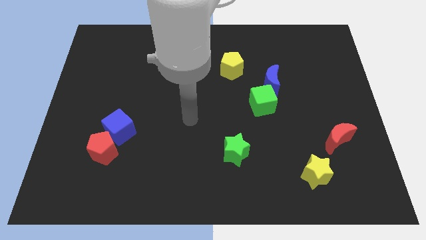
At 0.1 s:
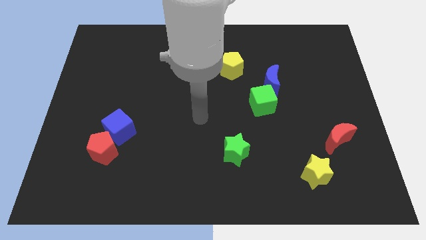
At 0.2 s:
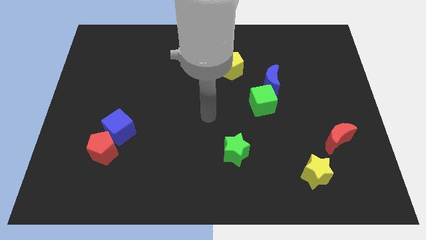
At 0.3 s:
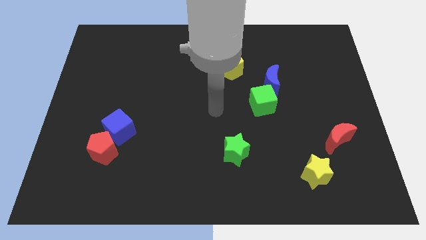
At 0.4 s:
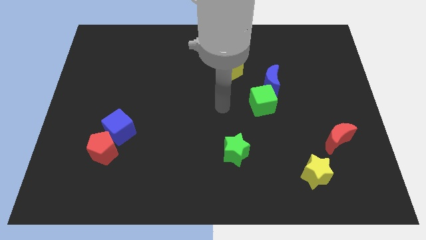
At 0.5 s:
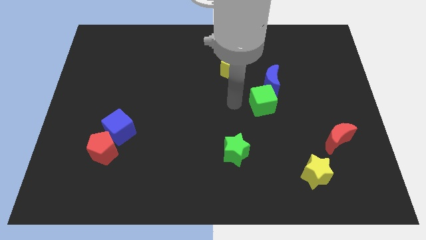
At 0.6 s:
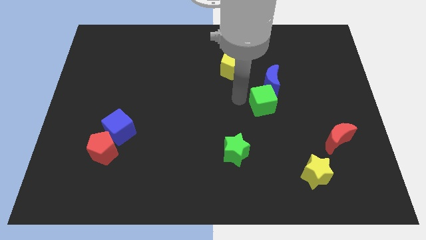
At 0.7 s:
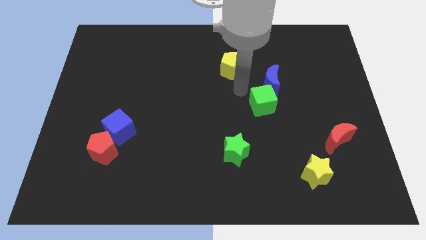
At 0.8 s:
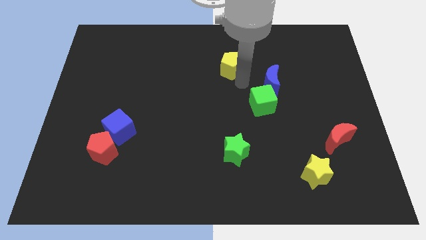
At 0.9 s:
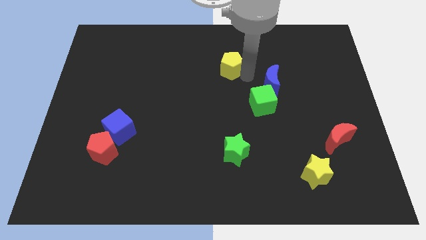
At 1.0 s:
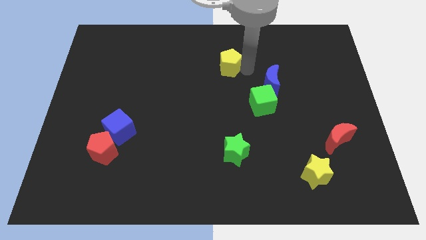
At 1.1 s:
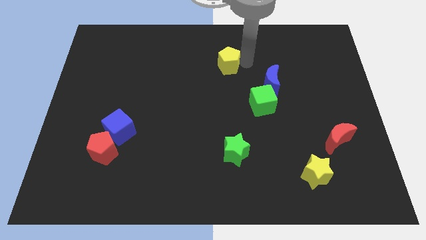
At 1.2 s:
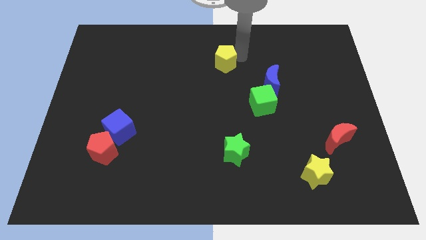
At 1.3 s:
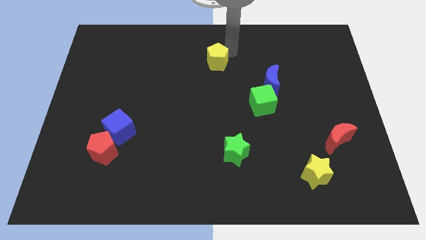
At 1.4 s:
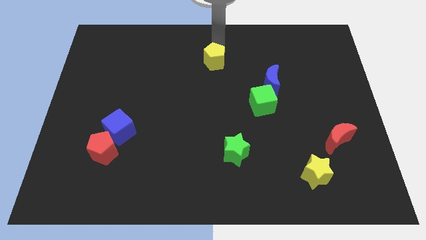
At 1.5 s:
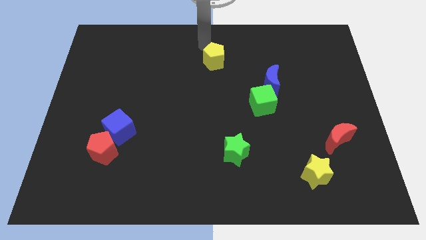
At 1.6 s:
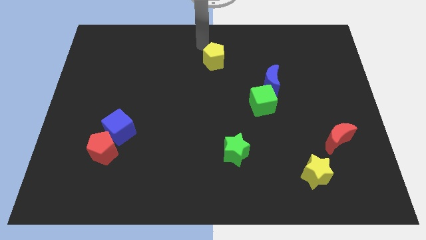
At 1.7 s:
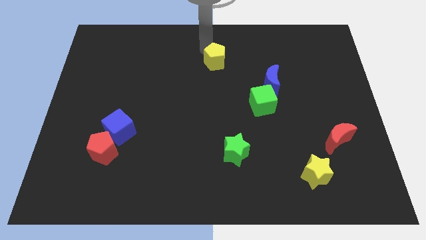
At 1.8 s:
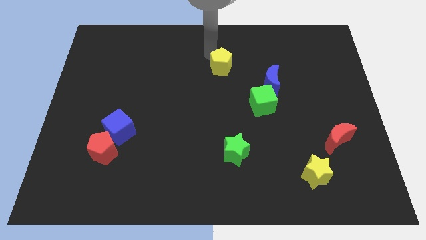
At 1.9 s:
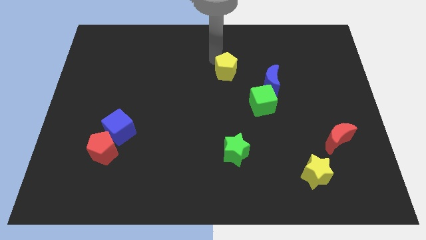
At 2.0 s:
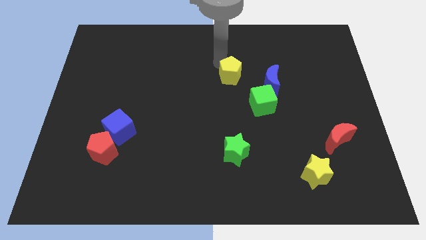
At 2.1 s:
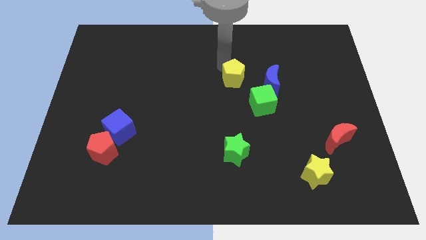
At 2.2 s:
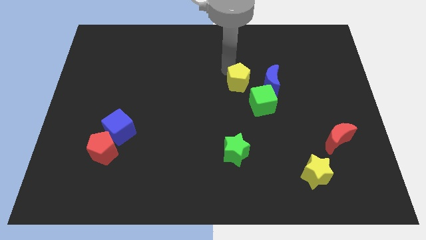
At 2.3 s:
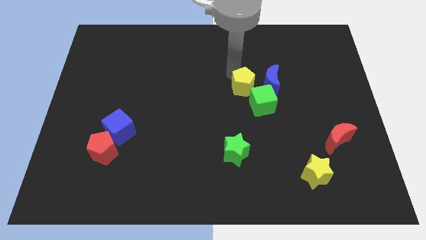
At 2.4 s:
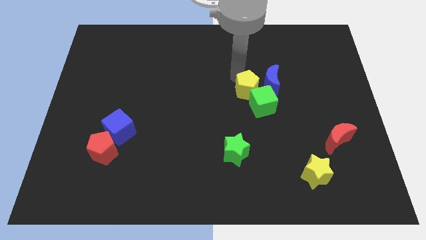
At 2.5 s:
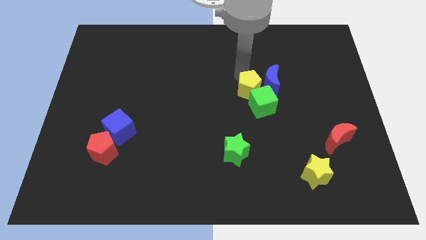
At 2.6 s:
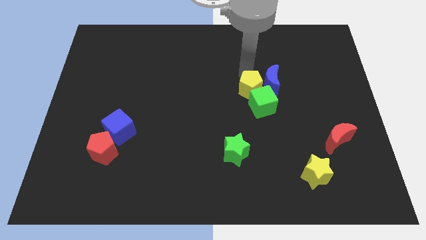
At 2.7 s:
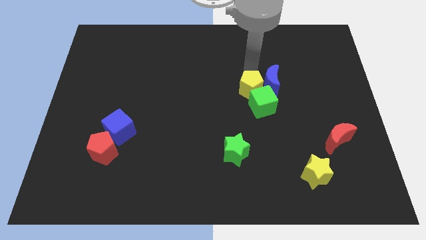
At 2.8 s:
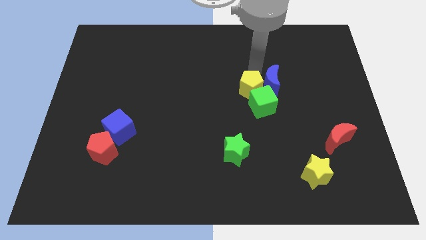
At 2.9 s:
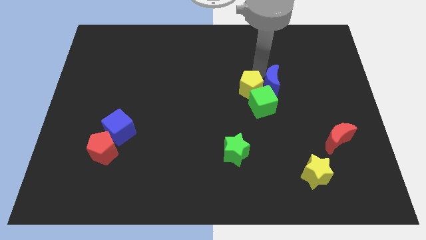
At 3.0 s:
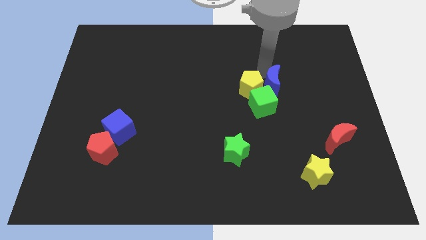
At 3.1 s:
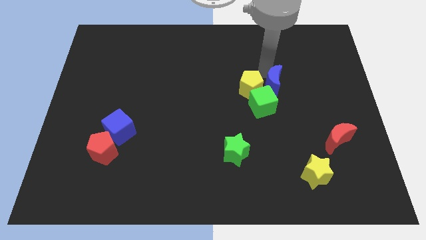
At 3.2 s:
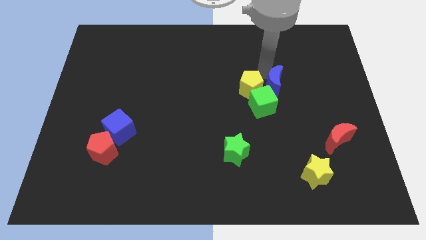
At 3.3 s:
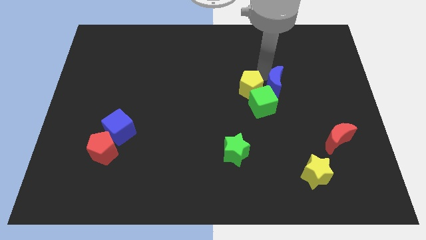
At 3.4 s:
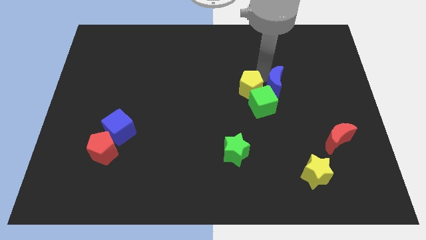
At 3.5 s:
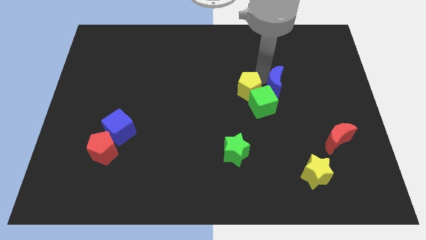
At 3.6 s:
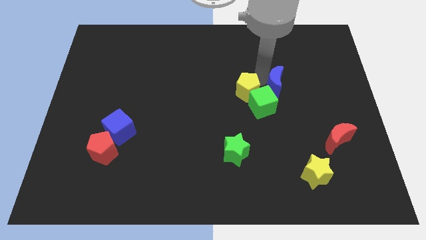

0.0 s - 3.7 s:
slightly move the yellow pentagon down

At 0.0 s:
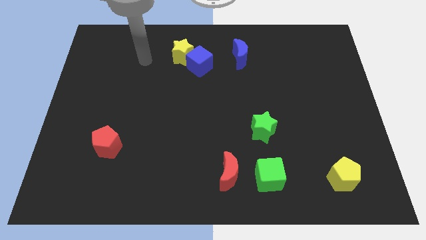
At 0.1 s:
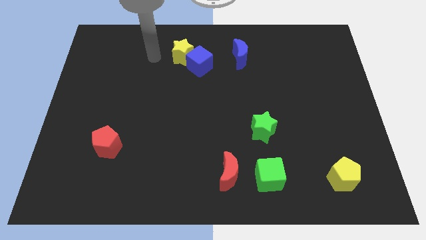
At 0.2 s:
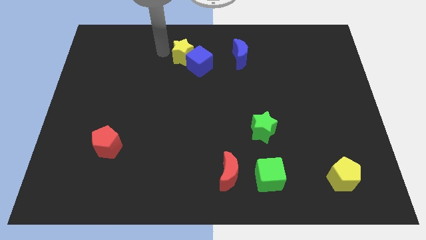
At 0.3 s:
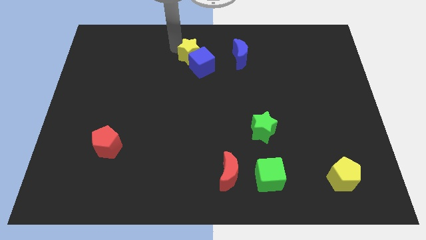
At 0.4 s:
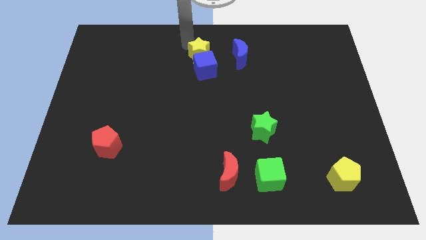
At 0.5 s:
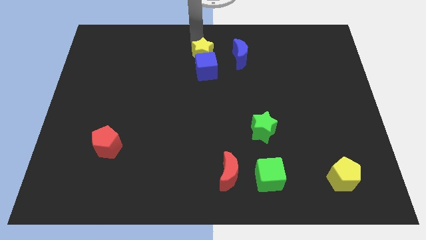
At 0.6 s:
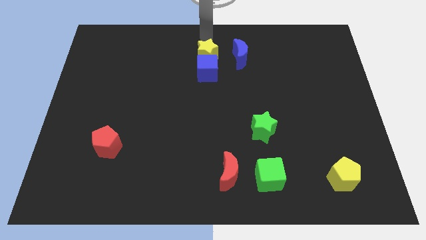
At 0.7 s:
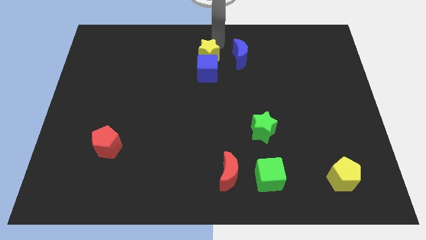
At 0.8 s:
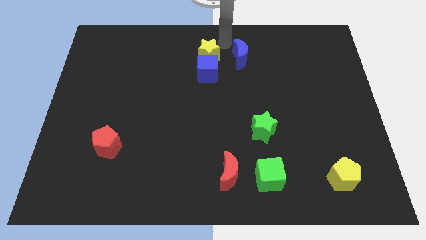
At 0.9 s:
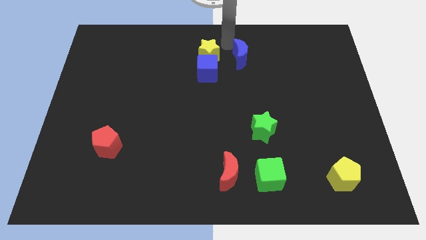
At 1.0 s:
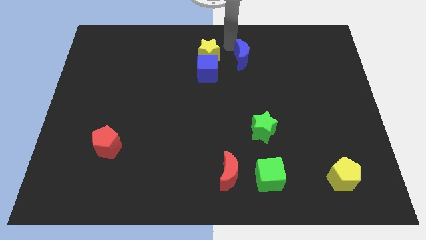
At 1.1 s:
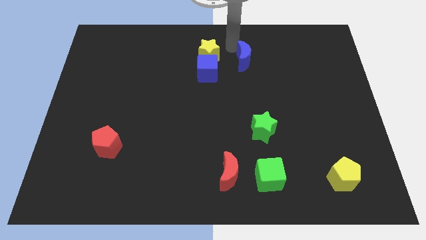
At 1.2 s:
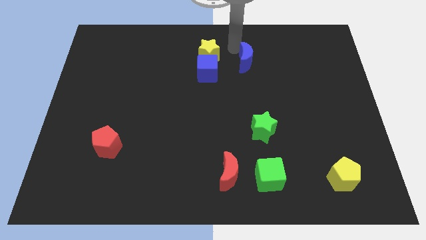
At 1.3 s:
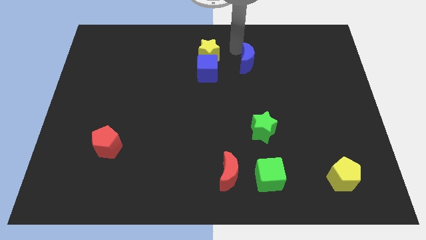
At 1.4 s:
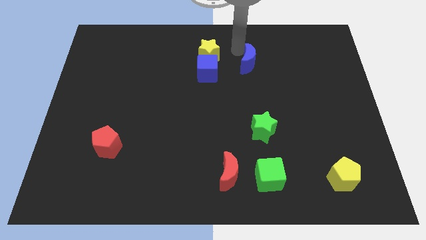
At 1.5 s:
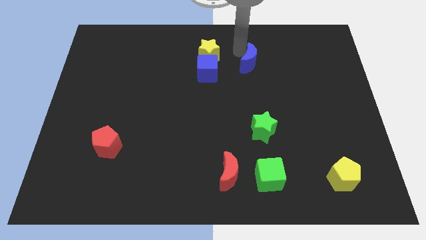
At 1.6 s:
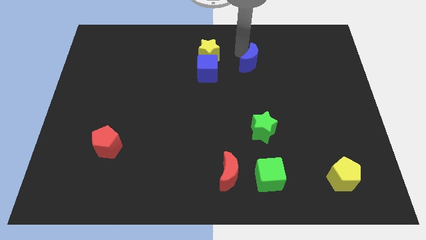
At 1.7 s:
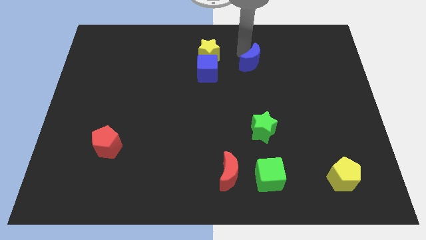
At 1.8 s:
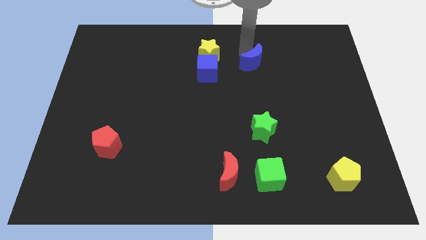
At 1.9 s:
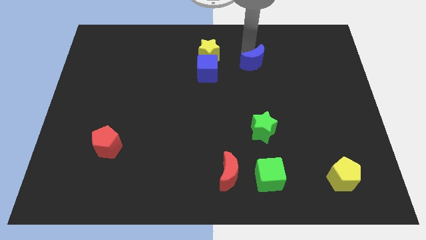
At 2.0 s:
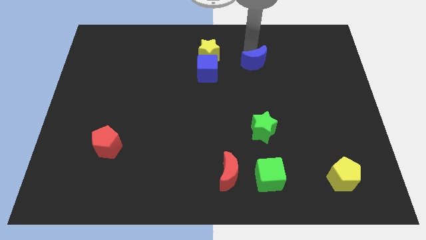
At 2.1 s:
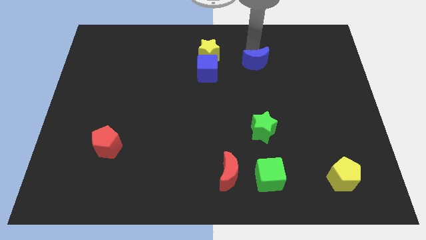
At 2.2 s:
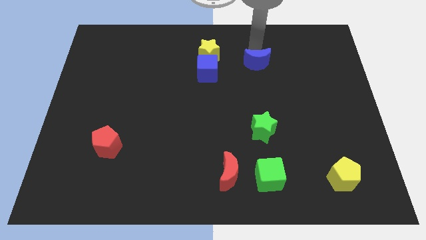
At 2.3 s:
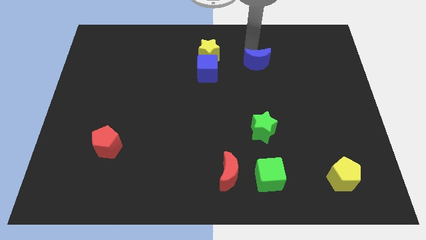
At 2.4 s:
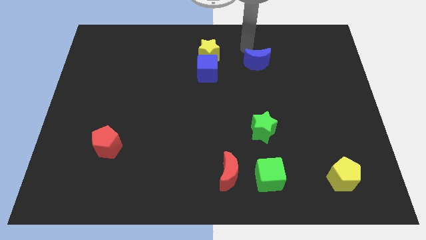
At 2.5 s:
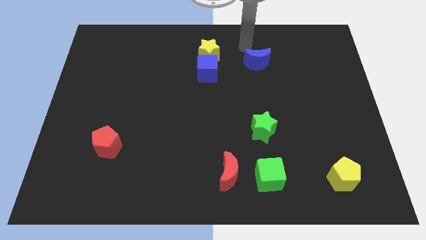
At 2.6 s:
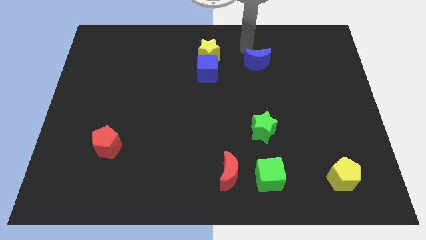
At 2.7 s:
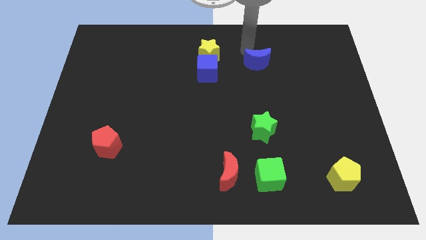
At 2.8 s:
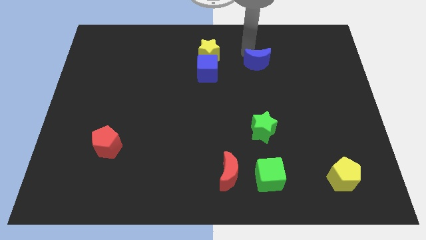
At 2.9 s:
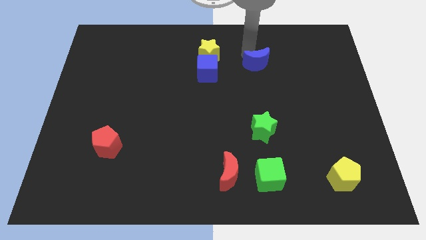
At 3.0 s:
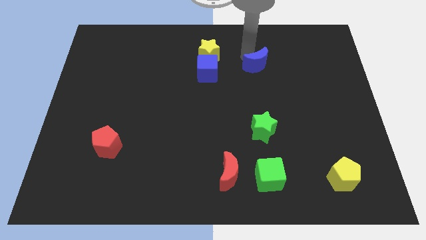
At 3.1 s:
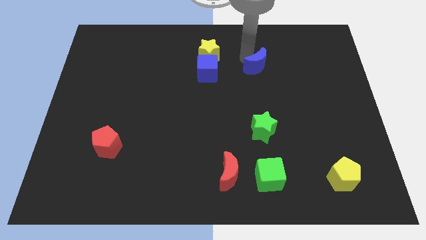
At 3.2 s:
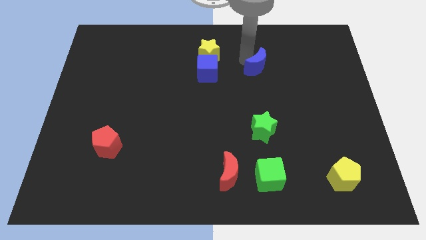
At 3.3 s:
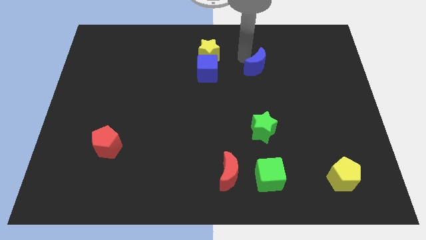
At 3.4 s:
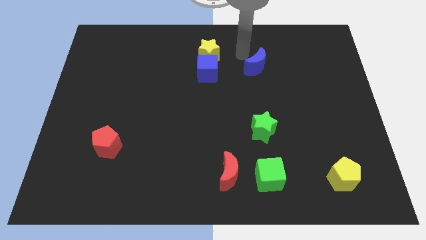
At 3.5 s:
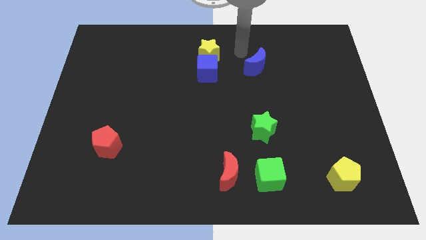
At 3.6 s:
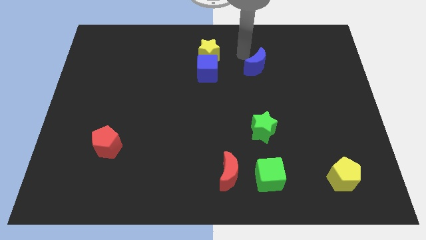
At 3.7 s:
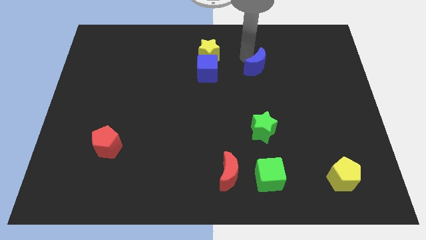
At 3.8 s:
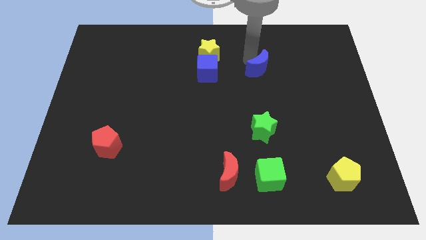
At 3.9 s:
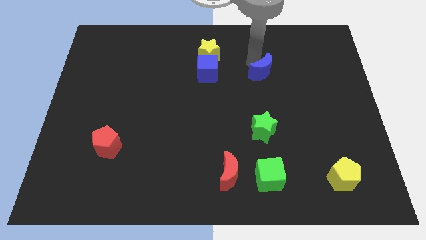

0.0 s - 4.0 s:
move the blue moon slightly down and then right

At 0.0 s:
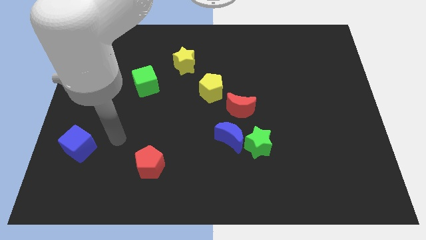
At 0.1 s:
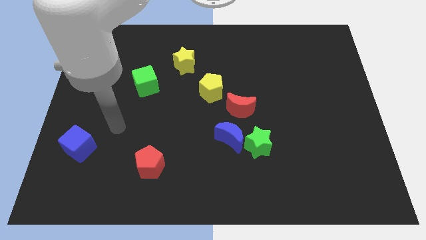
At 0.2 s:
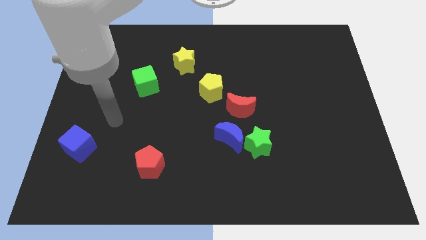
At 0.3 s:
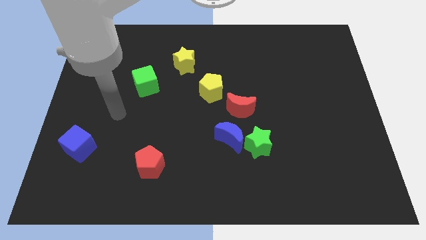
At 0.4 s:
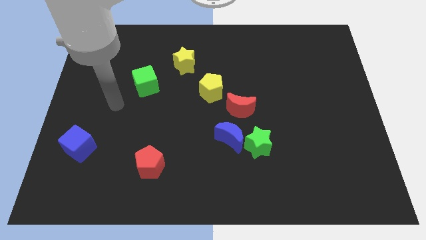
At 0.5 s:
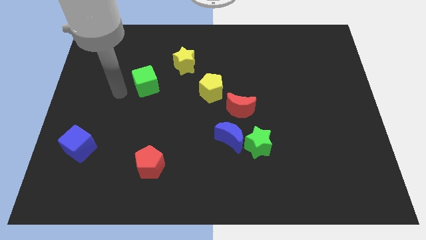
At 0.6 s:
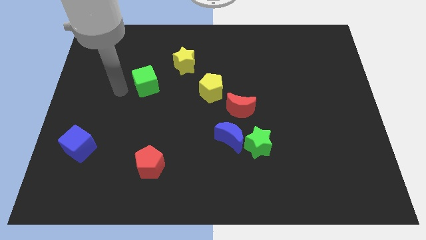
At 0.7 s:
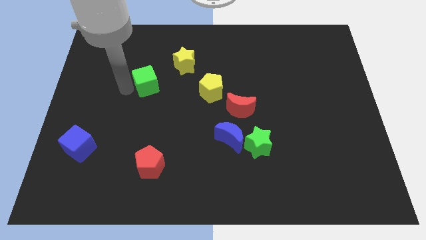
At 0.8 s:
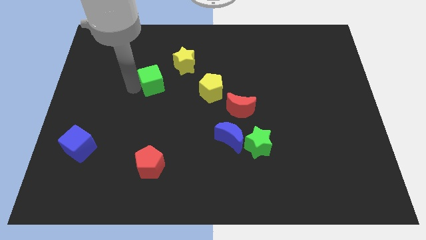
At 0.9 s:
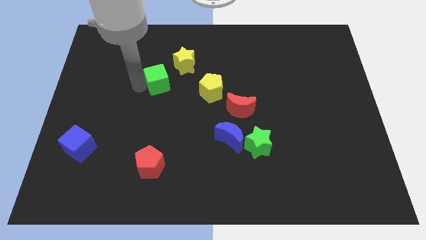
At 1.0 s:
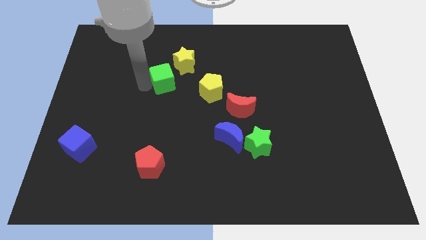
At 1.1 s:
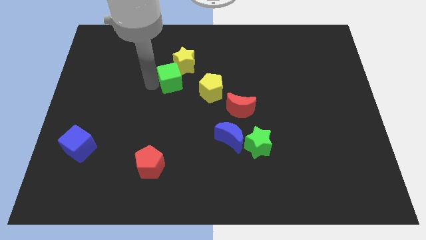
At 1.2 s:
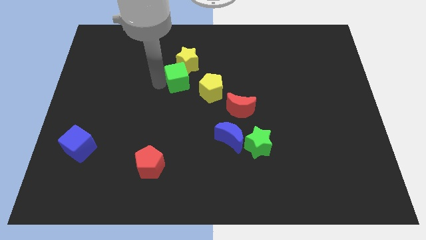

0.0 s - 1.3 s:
move the green cube right slightly
